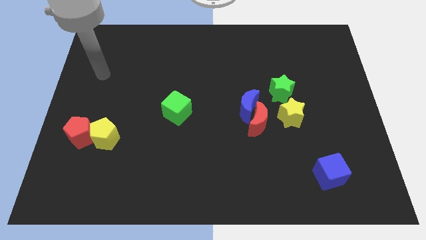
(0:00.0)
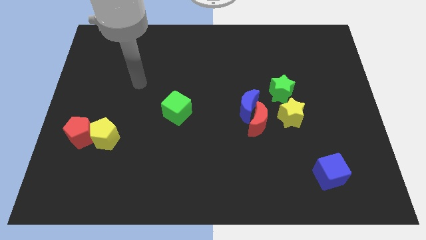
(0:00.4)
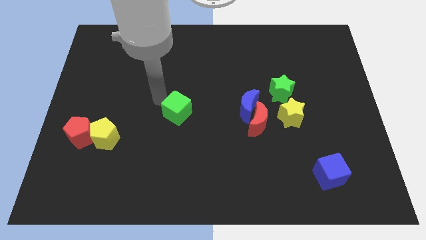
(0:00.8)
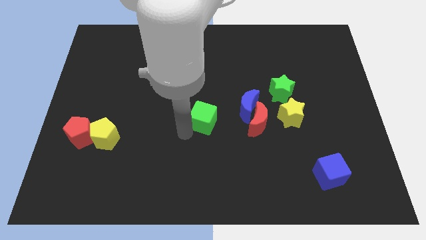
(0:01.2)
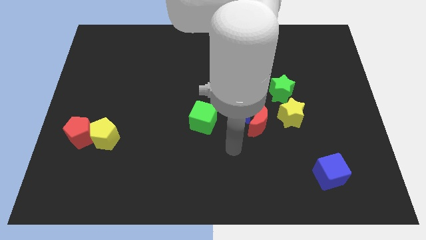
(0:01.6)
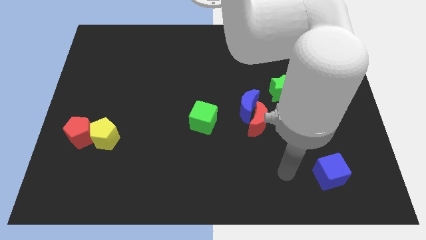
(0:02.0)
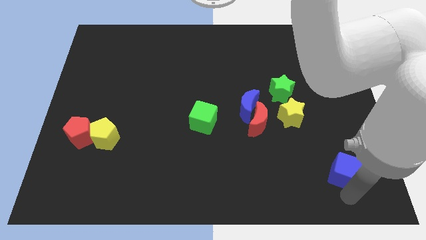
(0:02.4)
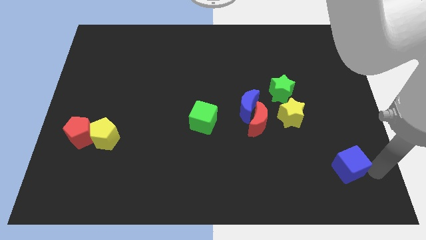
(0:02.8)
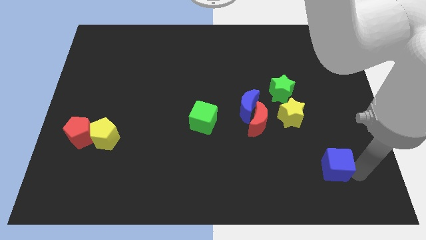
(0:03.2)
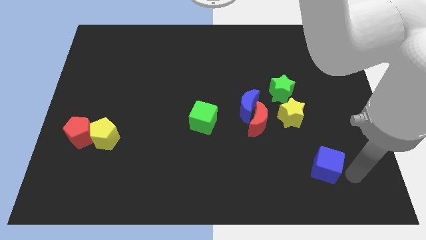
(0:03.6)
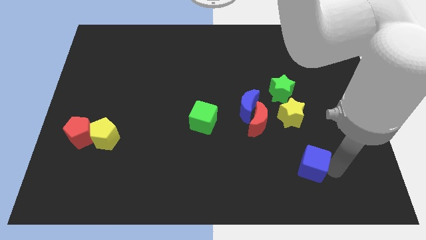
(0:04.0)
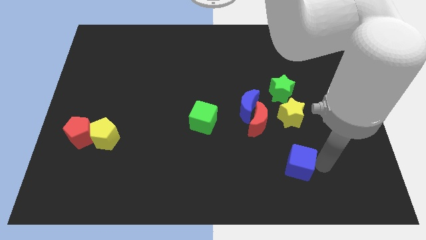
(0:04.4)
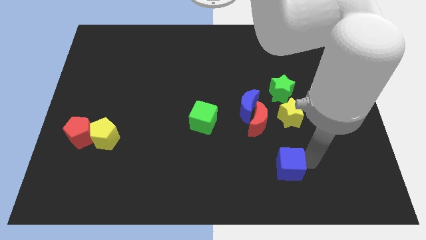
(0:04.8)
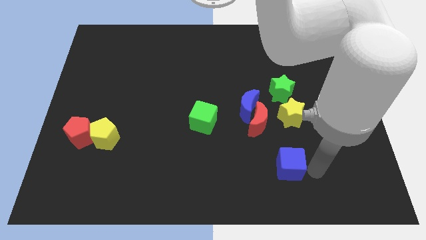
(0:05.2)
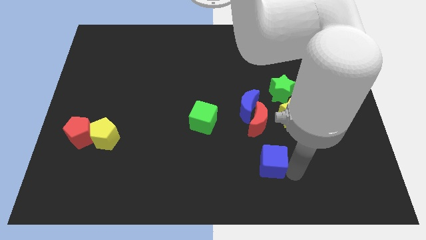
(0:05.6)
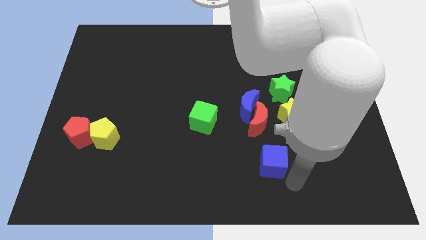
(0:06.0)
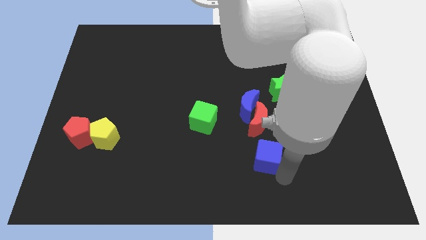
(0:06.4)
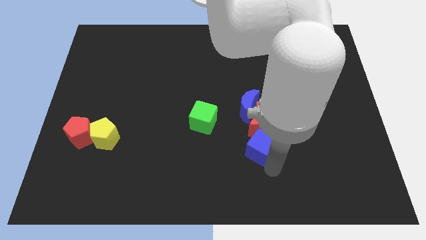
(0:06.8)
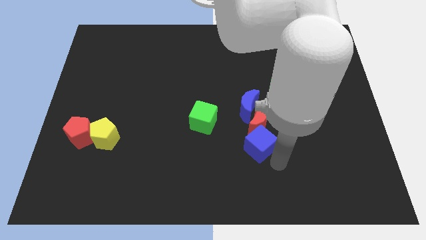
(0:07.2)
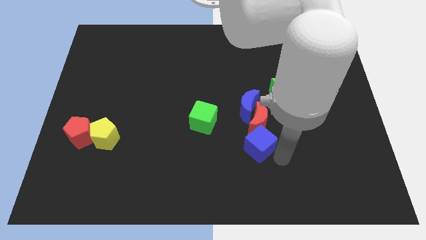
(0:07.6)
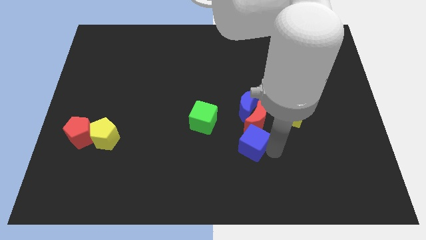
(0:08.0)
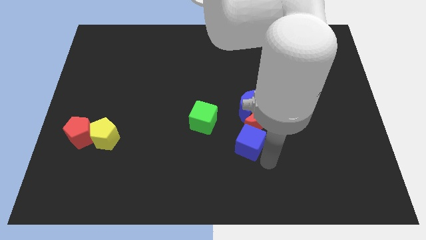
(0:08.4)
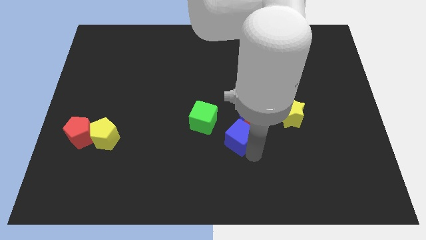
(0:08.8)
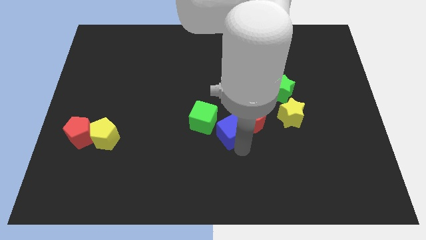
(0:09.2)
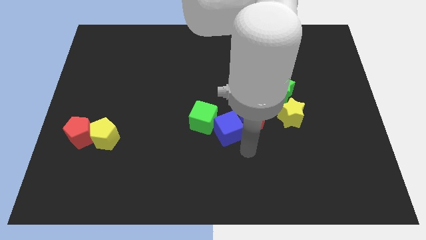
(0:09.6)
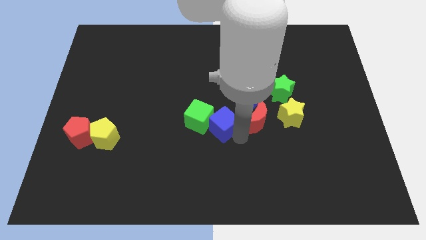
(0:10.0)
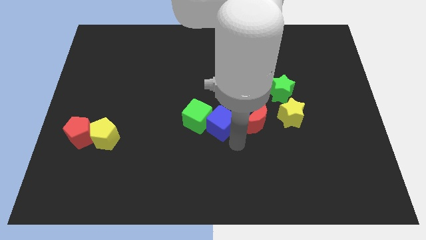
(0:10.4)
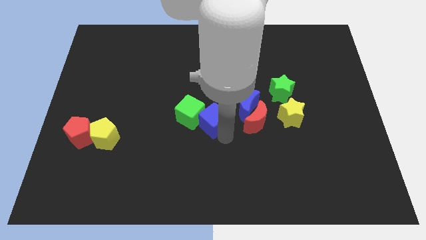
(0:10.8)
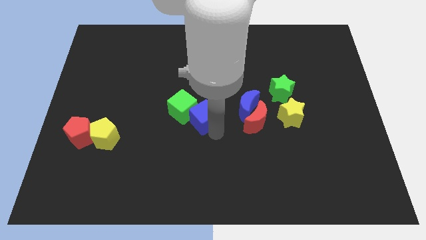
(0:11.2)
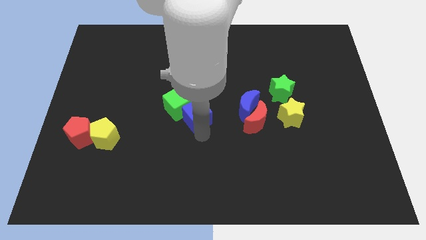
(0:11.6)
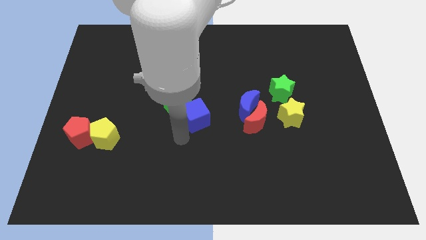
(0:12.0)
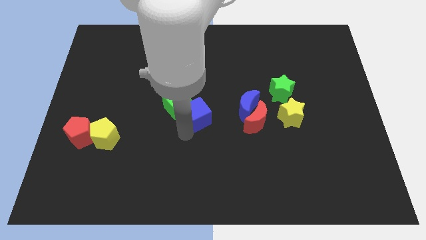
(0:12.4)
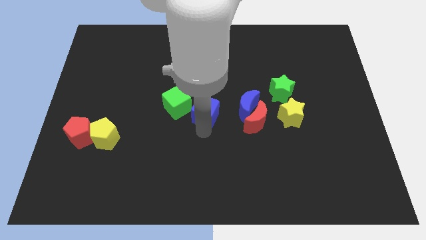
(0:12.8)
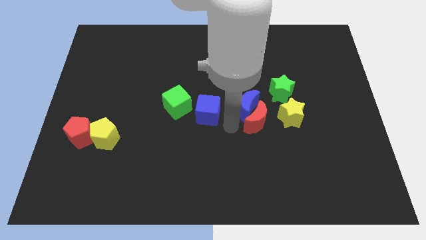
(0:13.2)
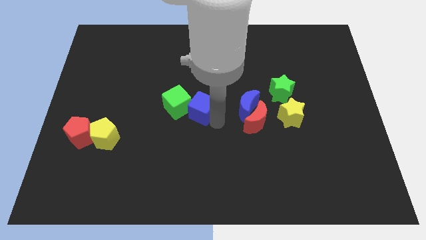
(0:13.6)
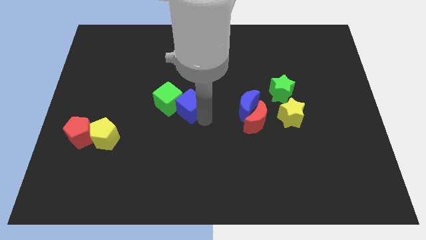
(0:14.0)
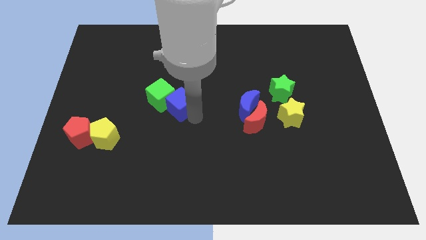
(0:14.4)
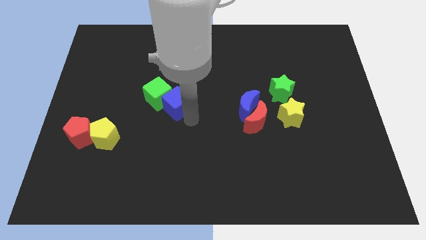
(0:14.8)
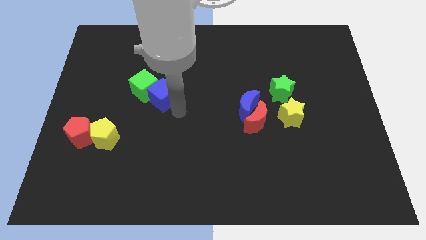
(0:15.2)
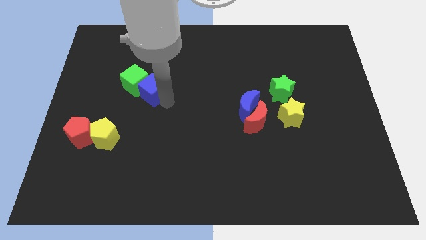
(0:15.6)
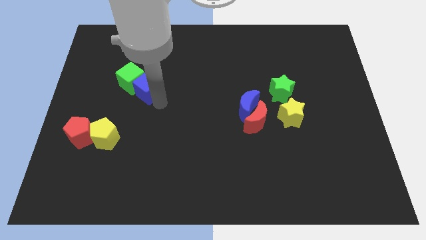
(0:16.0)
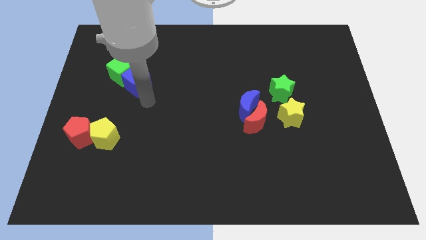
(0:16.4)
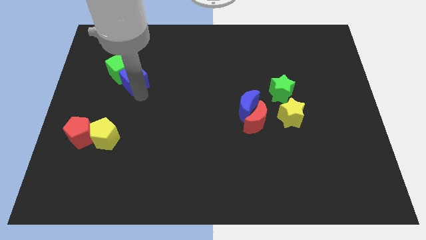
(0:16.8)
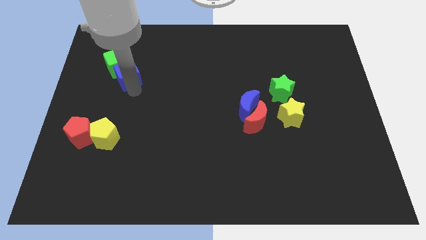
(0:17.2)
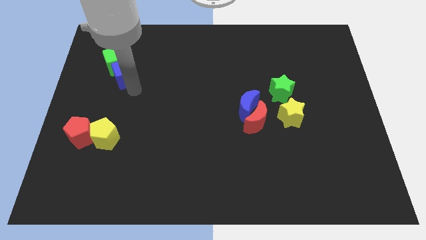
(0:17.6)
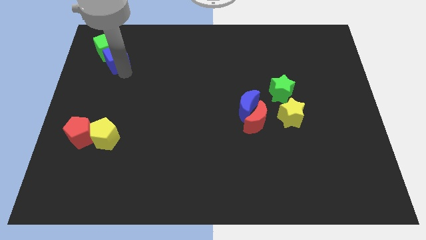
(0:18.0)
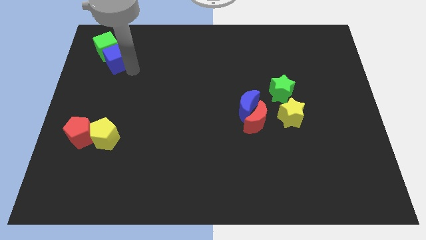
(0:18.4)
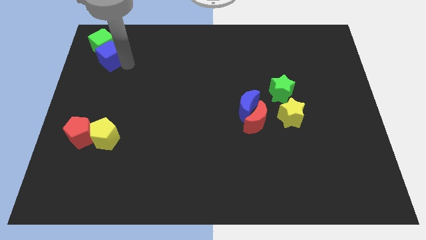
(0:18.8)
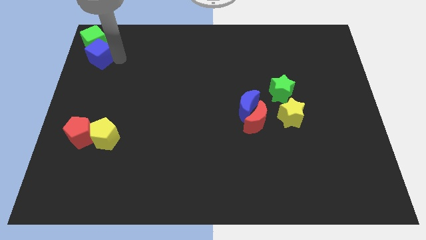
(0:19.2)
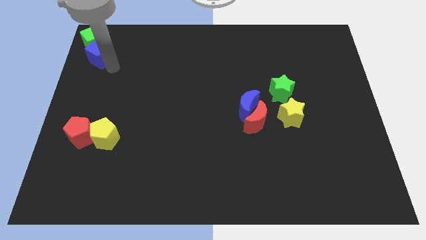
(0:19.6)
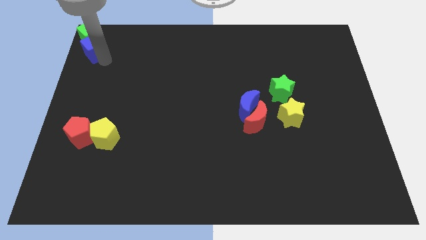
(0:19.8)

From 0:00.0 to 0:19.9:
slide the blue cube to the upper left corner

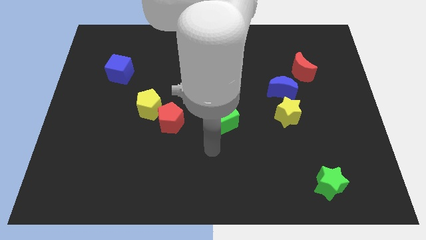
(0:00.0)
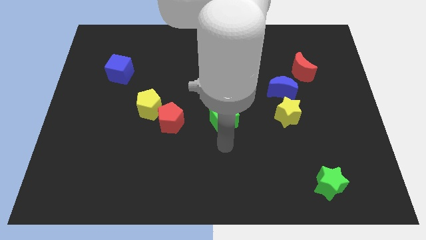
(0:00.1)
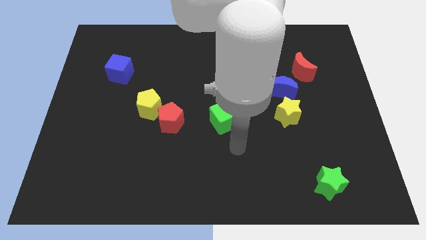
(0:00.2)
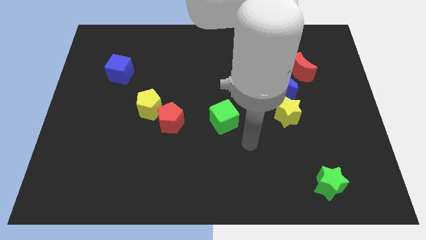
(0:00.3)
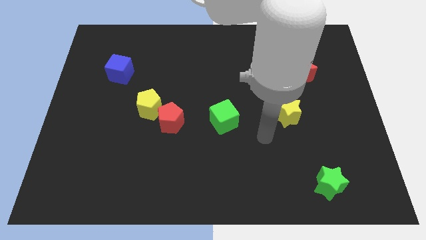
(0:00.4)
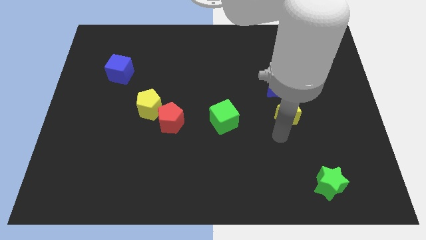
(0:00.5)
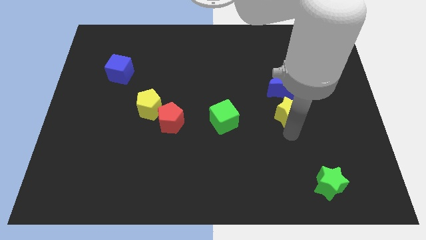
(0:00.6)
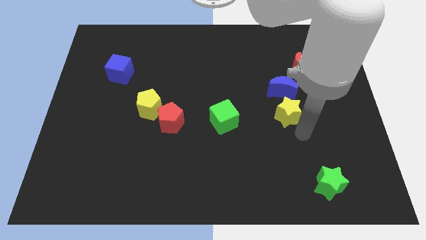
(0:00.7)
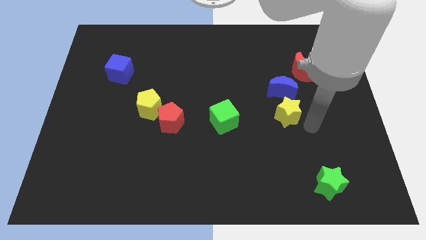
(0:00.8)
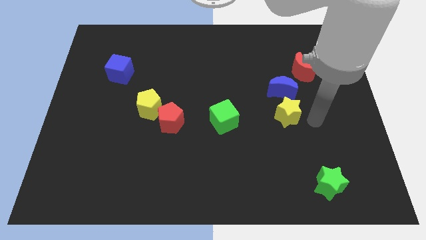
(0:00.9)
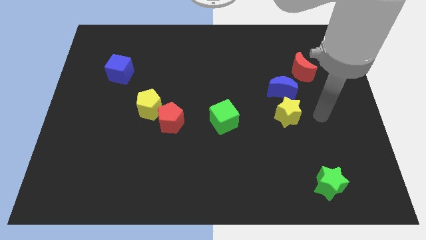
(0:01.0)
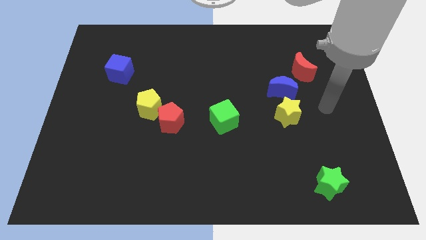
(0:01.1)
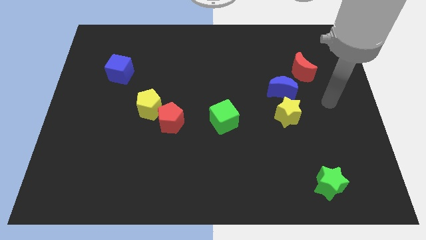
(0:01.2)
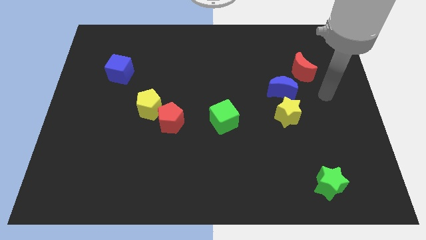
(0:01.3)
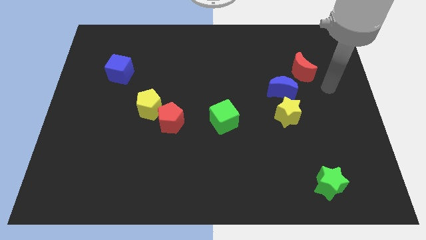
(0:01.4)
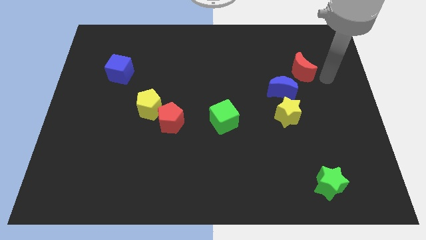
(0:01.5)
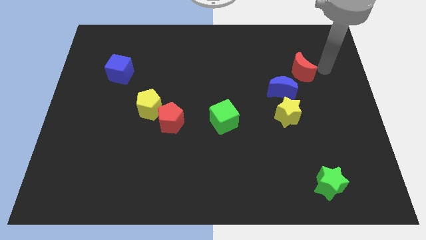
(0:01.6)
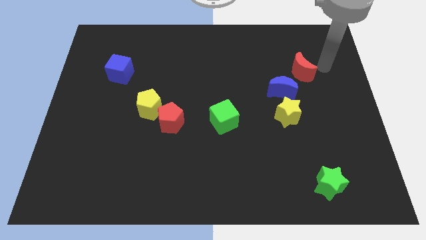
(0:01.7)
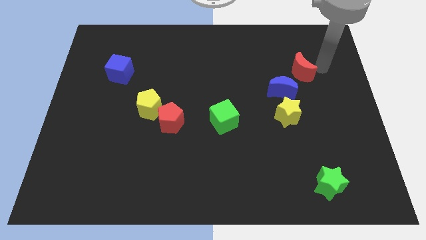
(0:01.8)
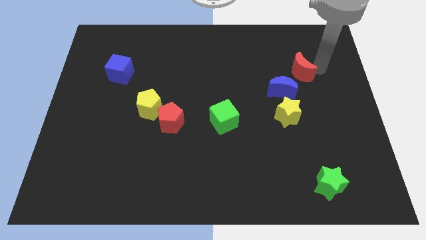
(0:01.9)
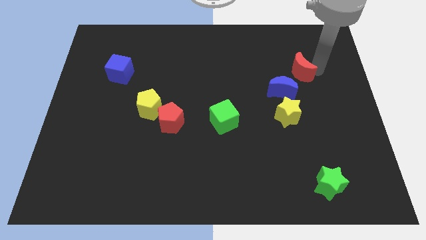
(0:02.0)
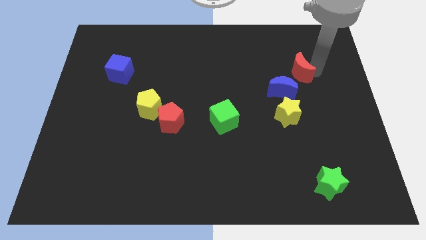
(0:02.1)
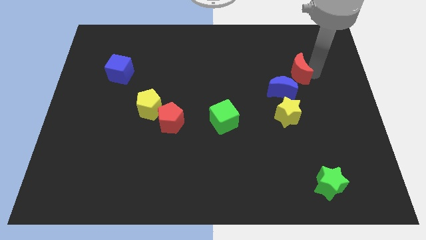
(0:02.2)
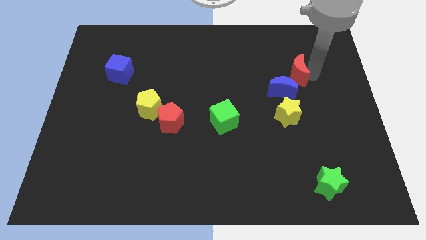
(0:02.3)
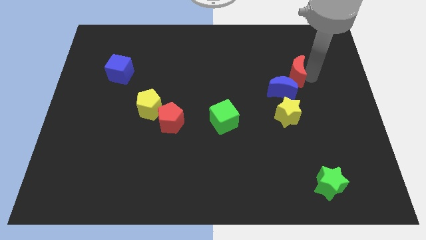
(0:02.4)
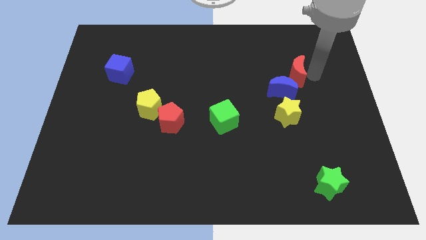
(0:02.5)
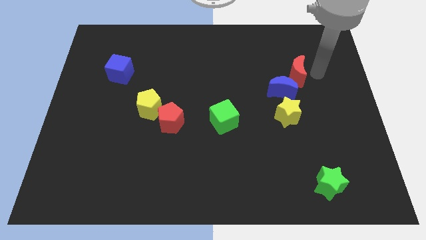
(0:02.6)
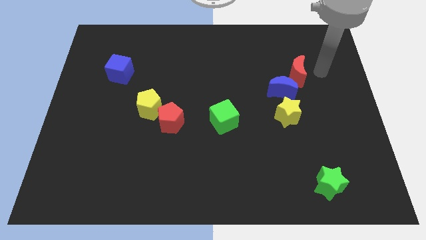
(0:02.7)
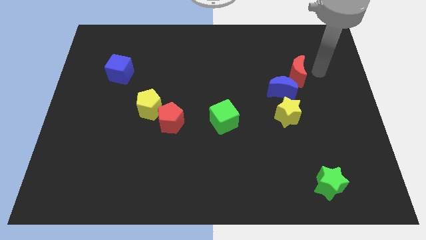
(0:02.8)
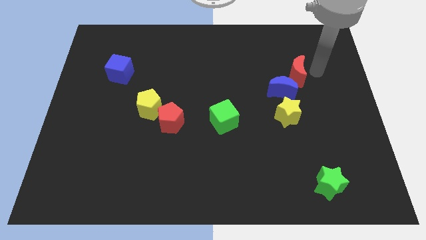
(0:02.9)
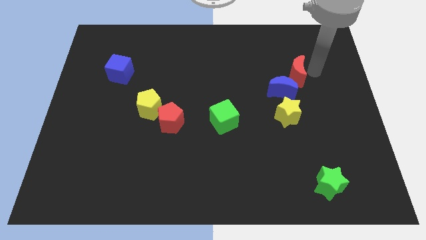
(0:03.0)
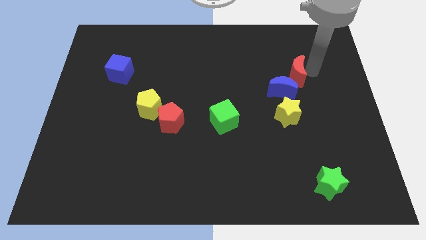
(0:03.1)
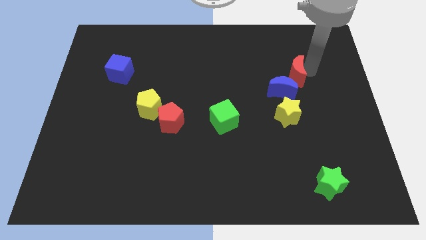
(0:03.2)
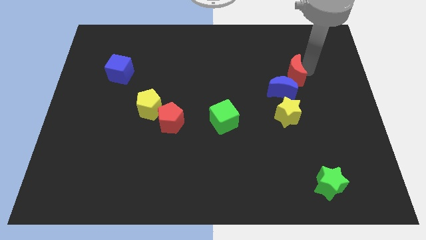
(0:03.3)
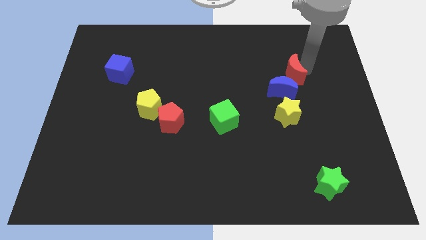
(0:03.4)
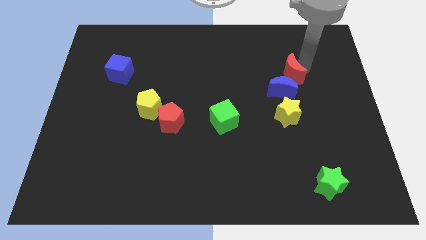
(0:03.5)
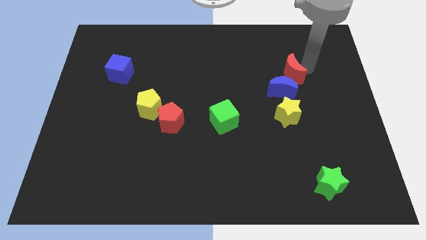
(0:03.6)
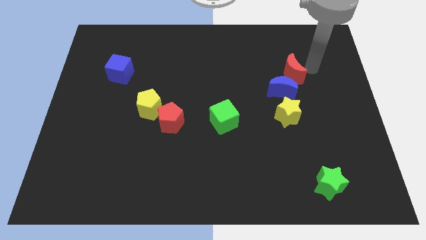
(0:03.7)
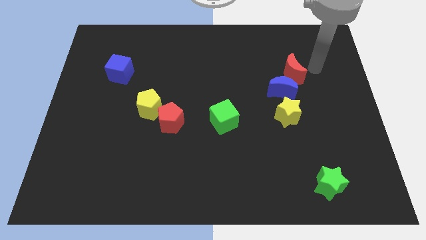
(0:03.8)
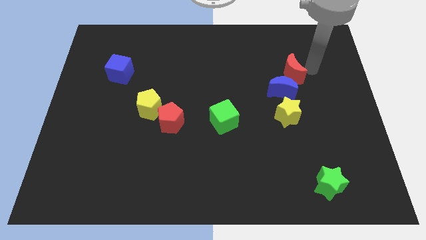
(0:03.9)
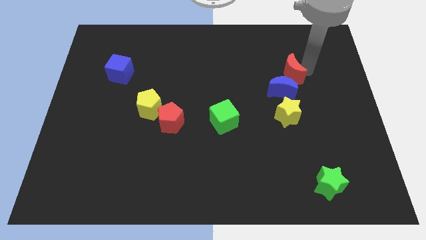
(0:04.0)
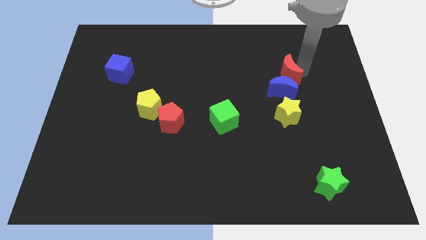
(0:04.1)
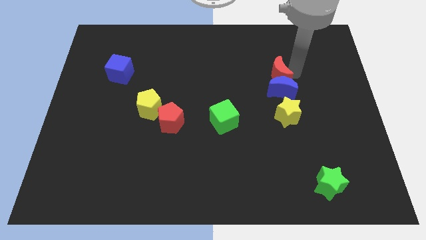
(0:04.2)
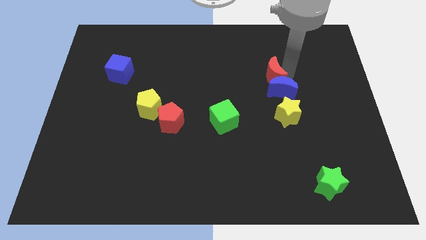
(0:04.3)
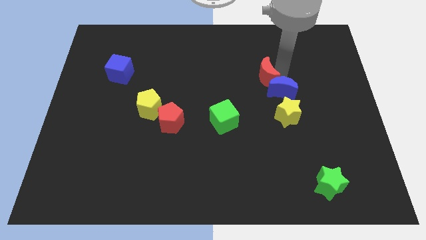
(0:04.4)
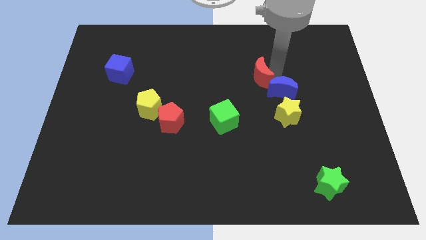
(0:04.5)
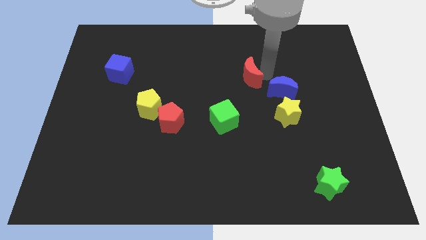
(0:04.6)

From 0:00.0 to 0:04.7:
slide the red moon to the center of the board
